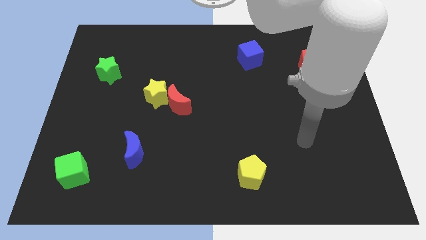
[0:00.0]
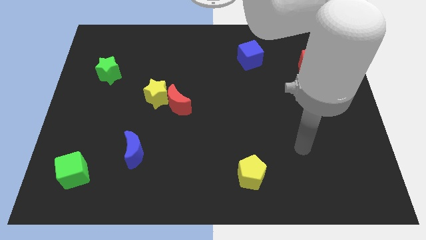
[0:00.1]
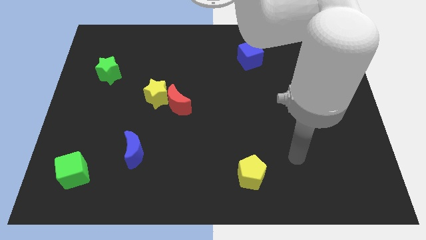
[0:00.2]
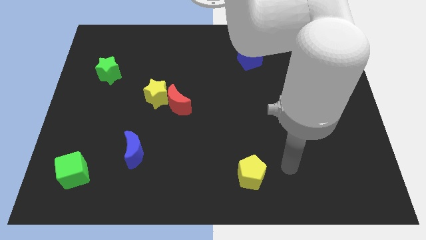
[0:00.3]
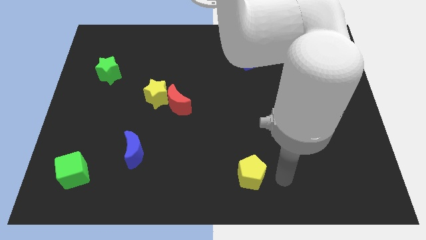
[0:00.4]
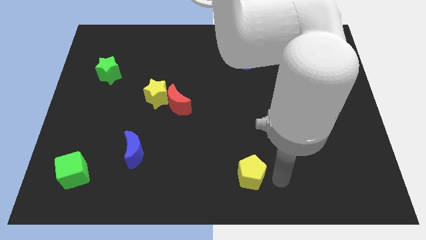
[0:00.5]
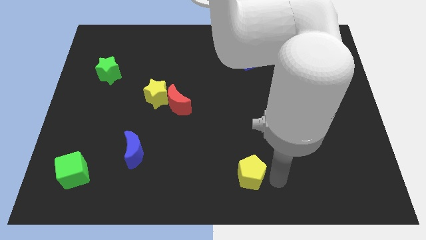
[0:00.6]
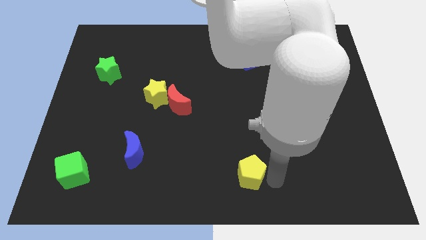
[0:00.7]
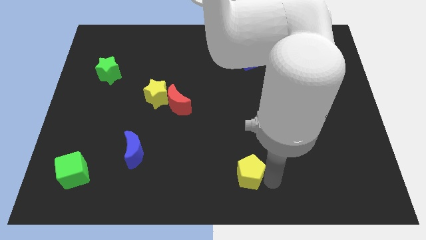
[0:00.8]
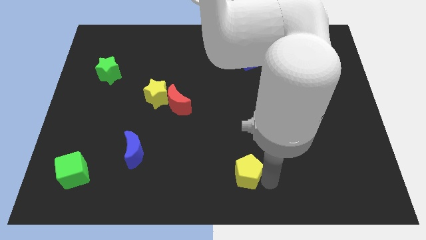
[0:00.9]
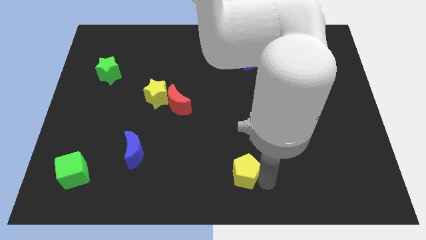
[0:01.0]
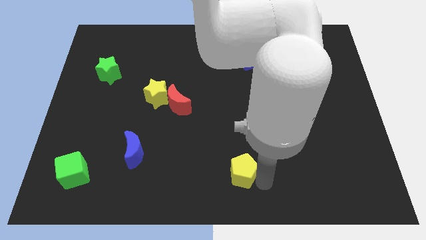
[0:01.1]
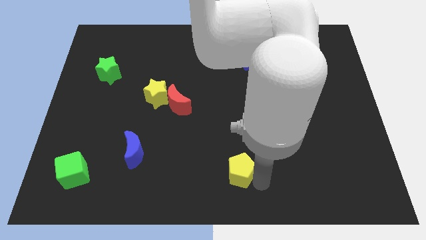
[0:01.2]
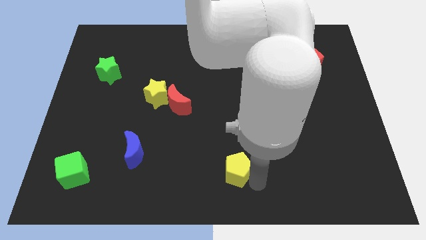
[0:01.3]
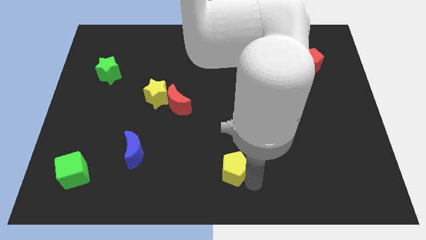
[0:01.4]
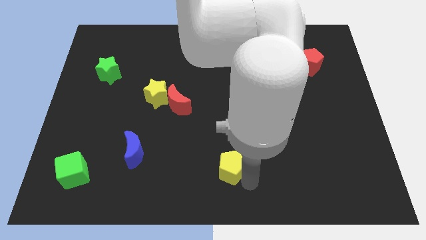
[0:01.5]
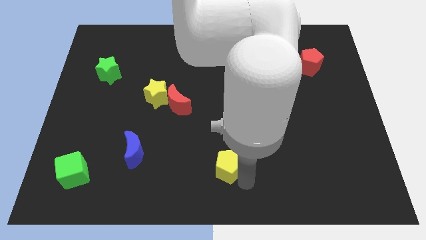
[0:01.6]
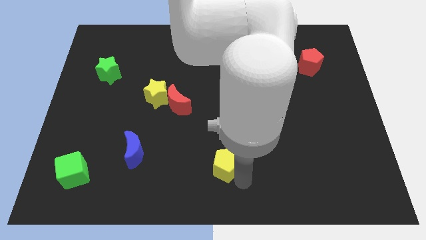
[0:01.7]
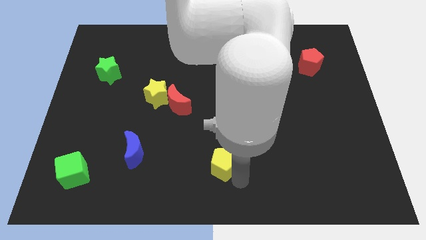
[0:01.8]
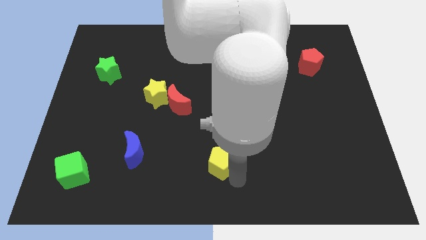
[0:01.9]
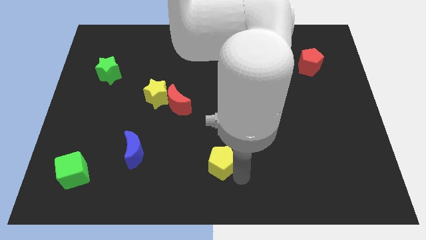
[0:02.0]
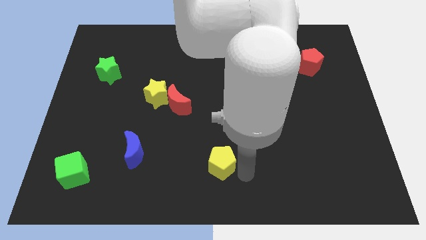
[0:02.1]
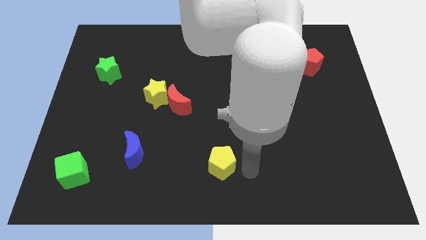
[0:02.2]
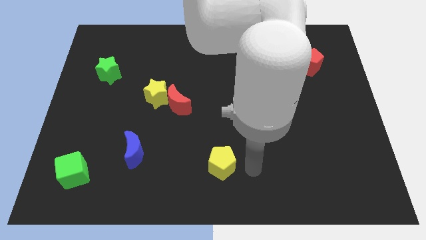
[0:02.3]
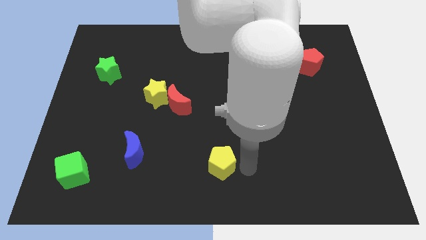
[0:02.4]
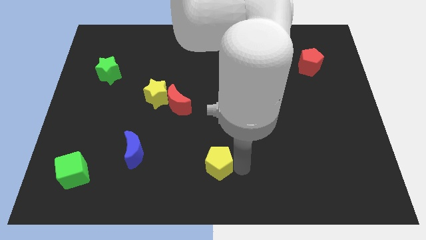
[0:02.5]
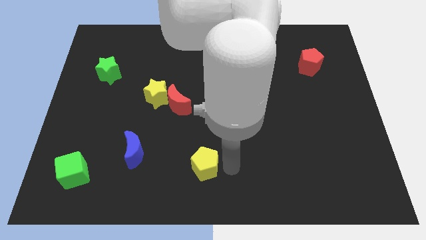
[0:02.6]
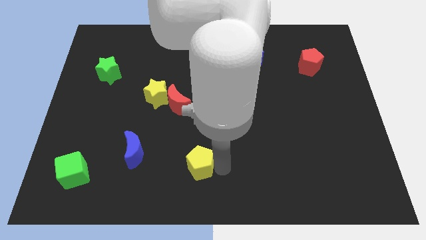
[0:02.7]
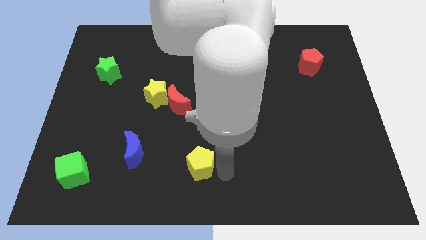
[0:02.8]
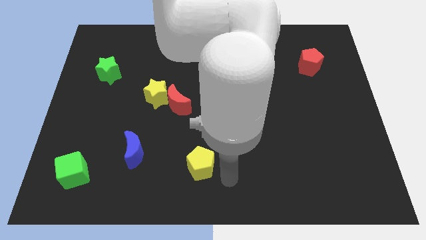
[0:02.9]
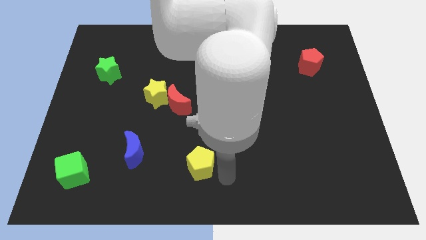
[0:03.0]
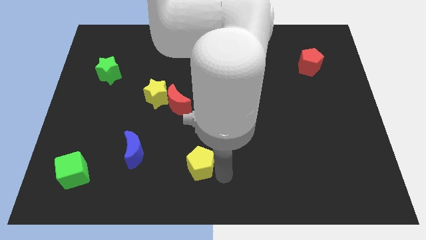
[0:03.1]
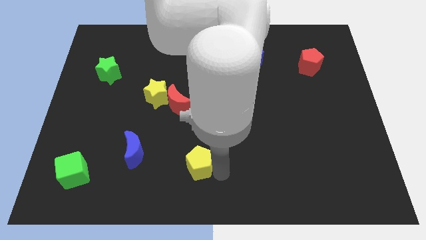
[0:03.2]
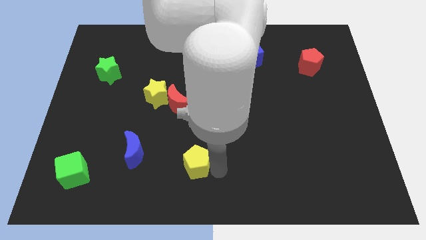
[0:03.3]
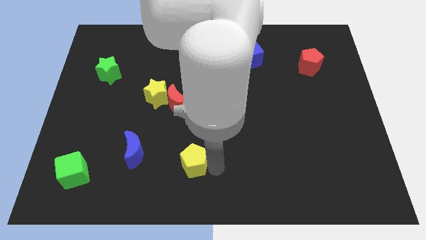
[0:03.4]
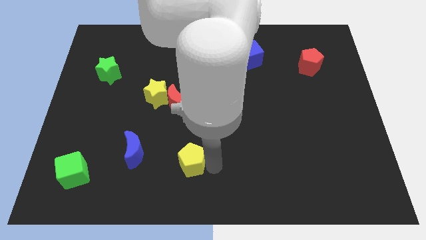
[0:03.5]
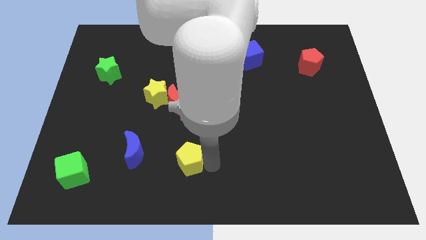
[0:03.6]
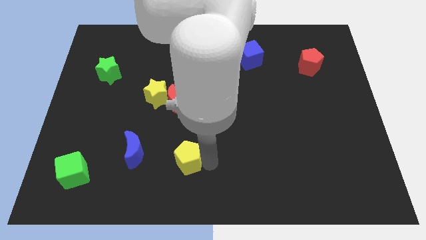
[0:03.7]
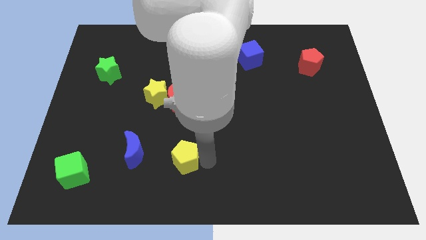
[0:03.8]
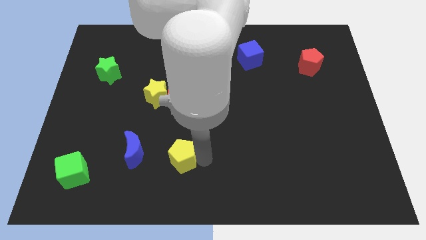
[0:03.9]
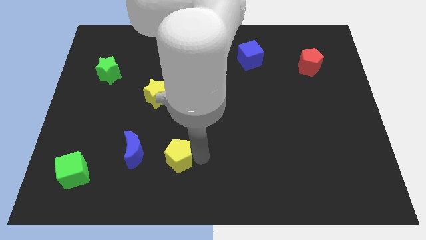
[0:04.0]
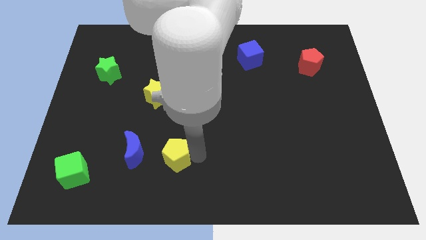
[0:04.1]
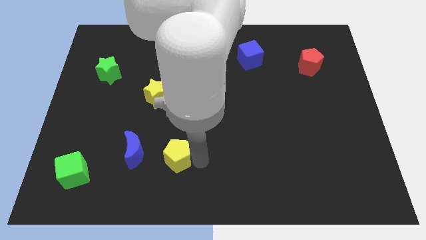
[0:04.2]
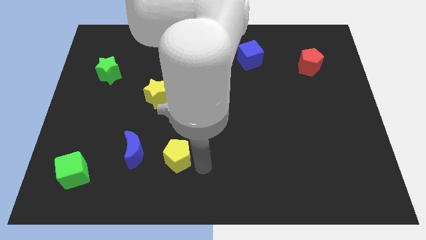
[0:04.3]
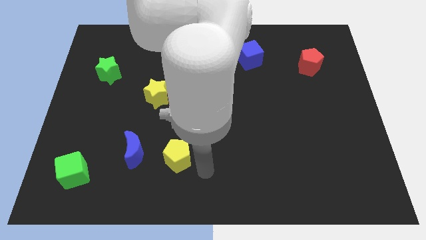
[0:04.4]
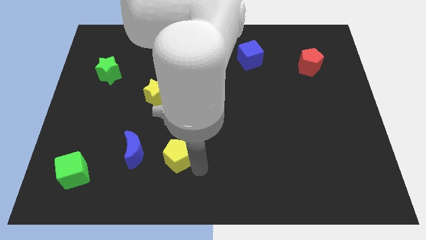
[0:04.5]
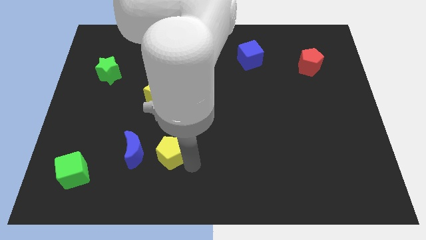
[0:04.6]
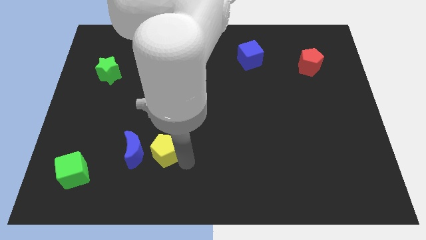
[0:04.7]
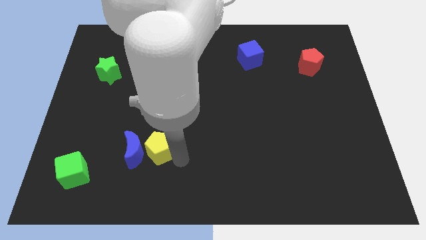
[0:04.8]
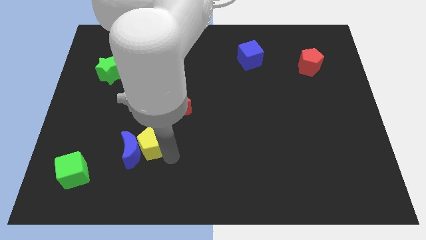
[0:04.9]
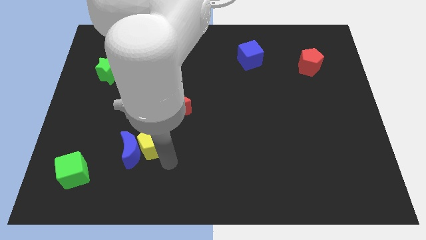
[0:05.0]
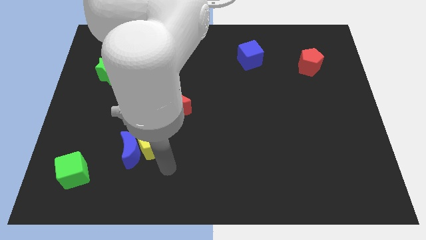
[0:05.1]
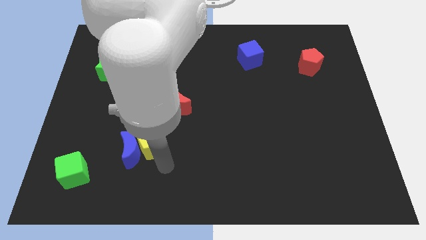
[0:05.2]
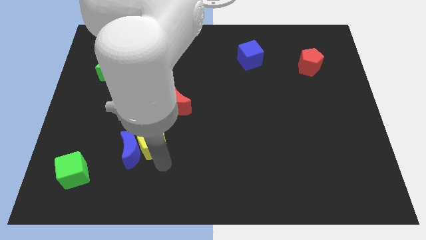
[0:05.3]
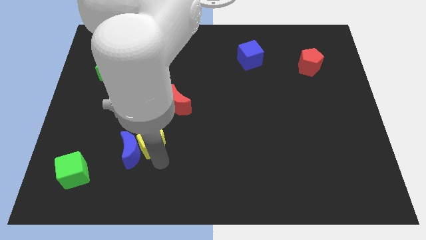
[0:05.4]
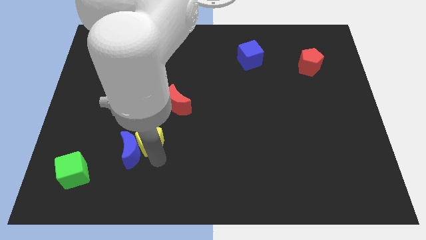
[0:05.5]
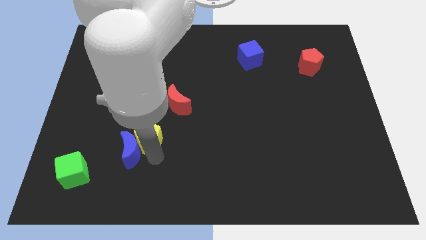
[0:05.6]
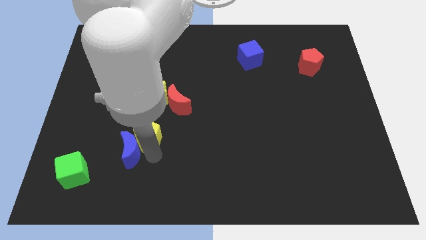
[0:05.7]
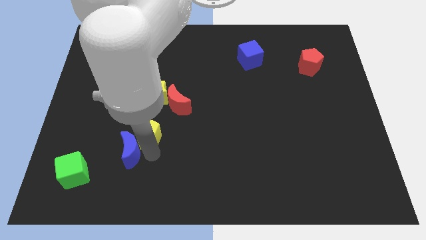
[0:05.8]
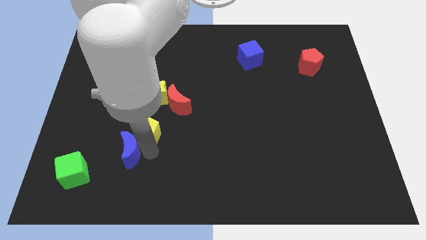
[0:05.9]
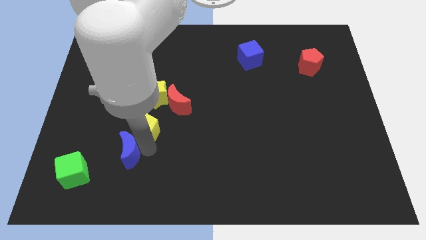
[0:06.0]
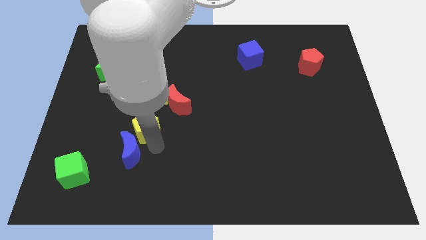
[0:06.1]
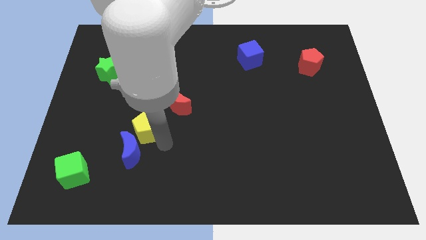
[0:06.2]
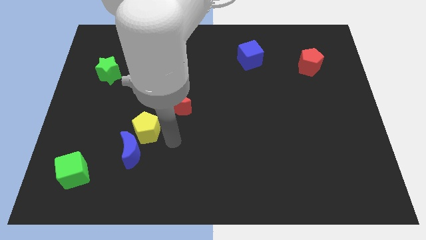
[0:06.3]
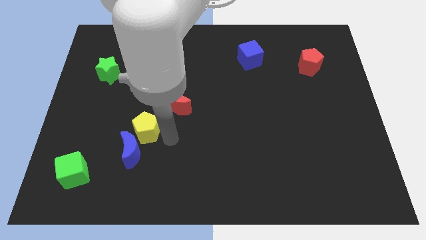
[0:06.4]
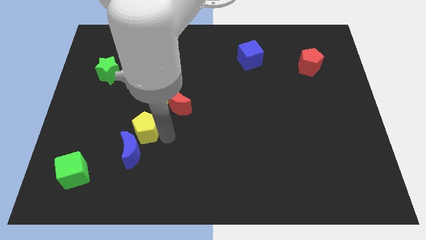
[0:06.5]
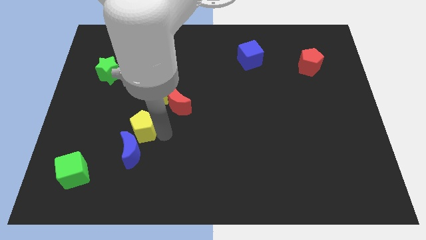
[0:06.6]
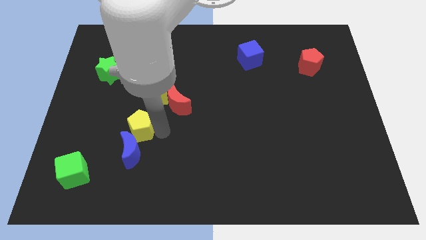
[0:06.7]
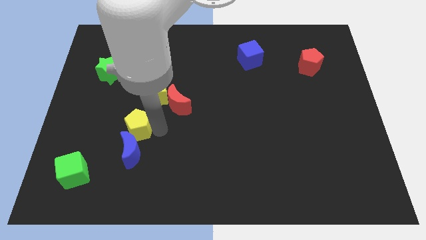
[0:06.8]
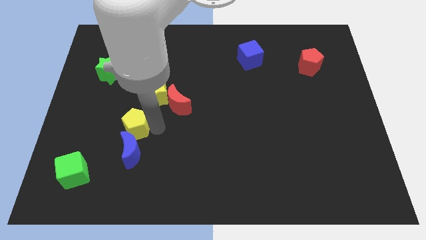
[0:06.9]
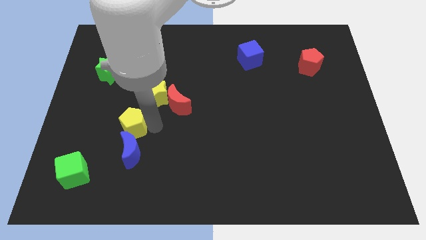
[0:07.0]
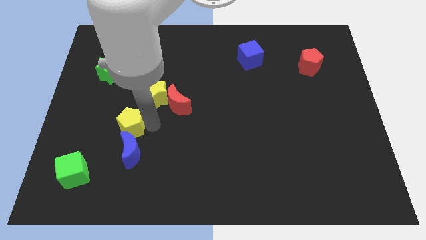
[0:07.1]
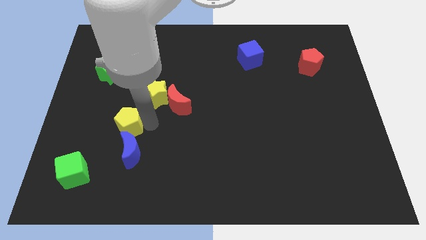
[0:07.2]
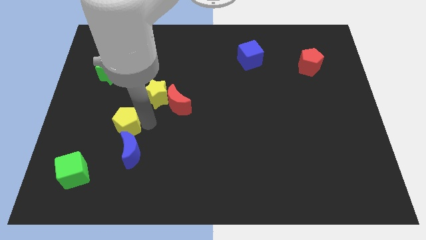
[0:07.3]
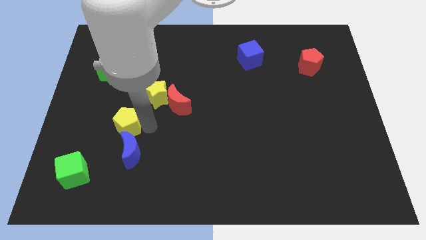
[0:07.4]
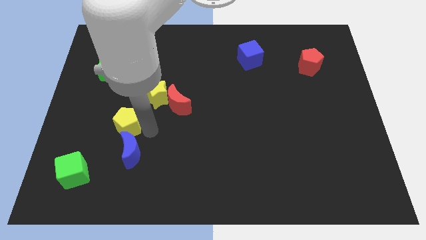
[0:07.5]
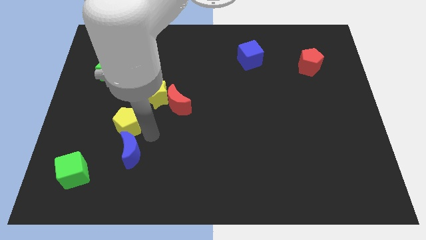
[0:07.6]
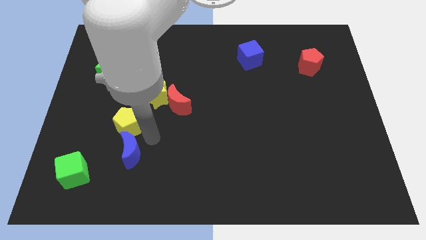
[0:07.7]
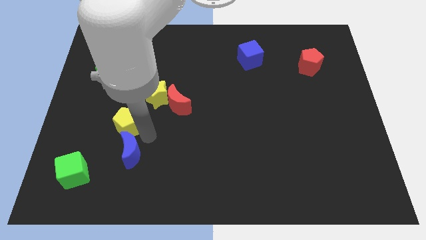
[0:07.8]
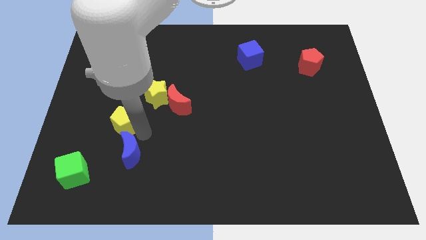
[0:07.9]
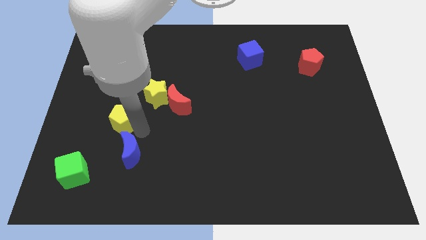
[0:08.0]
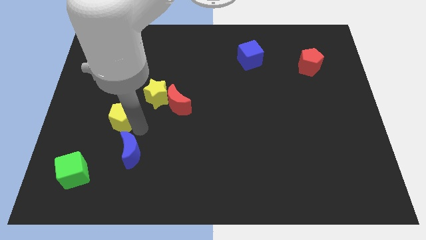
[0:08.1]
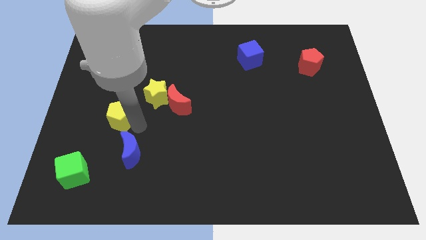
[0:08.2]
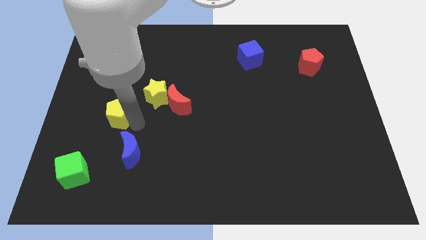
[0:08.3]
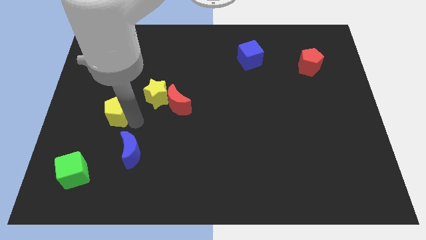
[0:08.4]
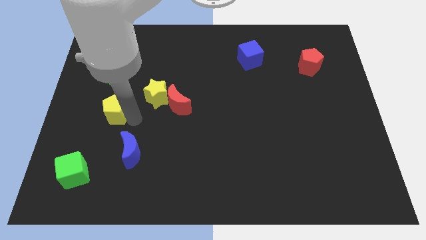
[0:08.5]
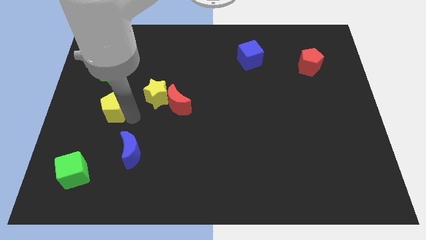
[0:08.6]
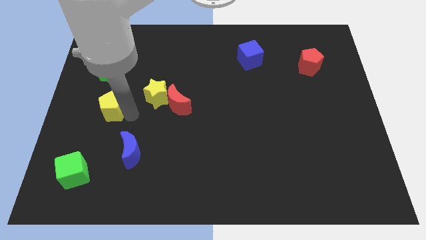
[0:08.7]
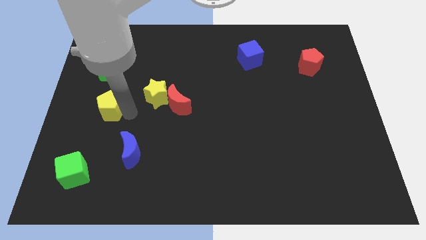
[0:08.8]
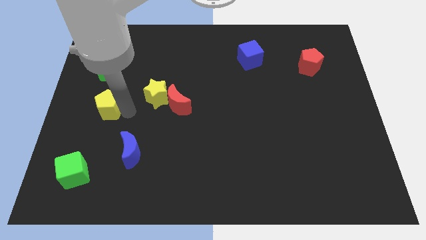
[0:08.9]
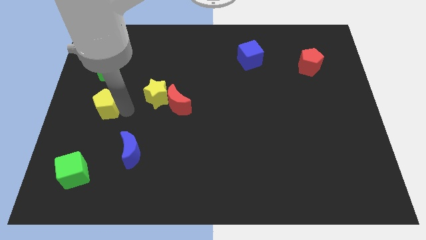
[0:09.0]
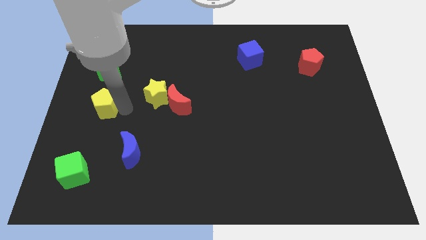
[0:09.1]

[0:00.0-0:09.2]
push the yellow pentagon to the center left
